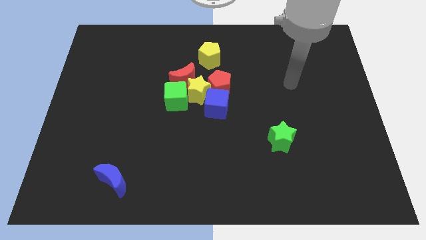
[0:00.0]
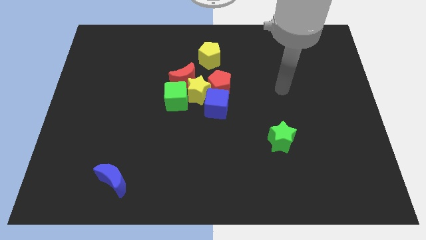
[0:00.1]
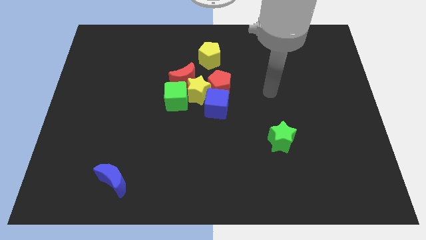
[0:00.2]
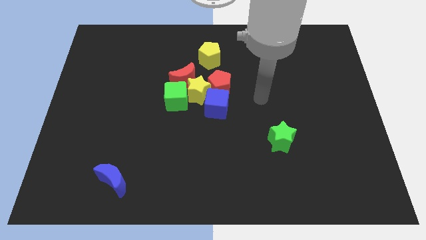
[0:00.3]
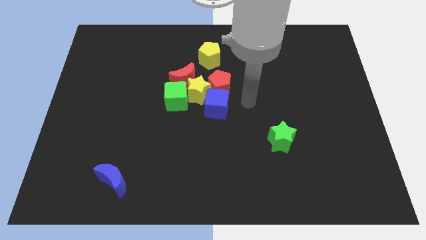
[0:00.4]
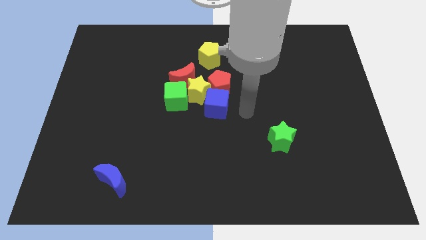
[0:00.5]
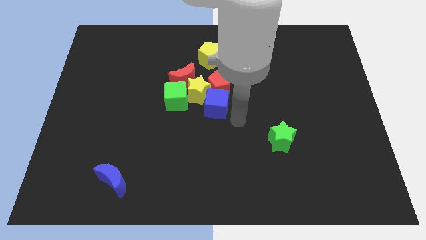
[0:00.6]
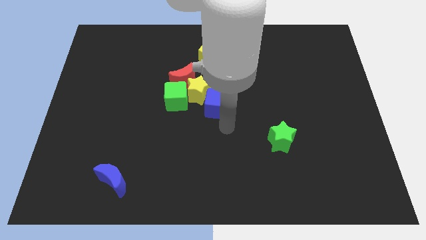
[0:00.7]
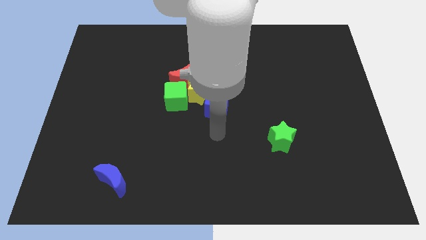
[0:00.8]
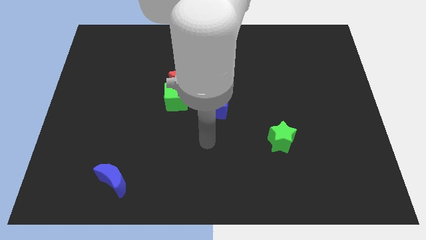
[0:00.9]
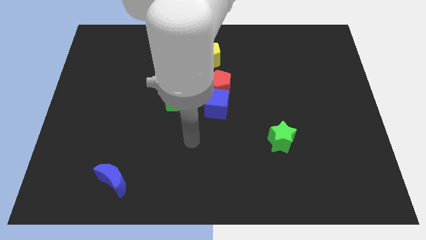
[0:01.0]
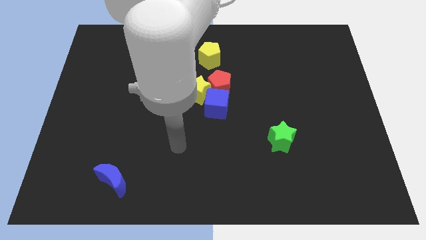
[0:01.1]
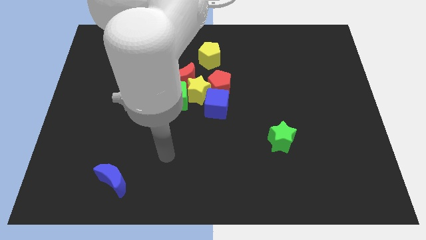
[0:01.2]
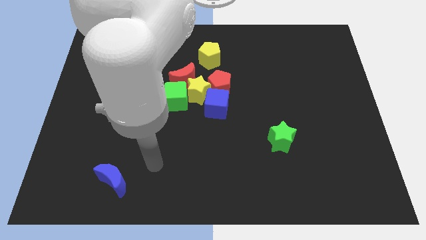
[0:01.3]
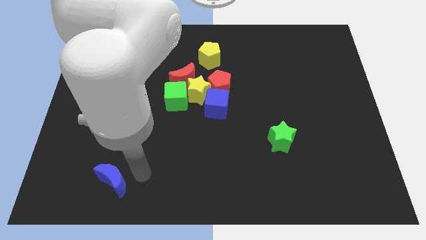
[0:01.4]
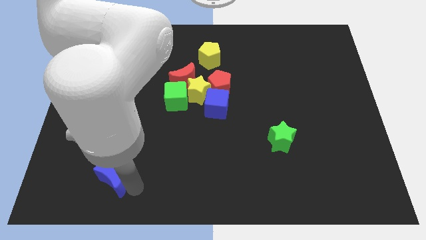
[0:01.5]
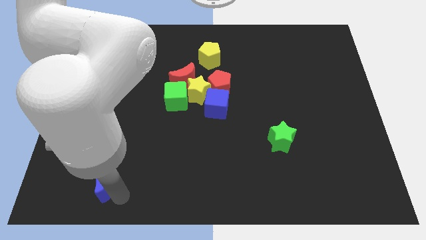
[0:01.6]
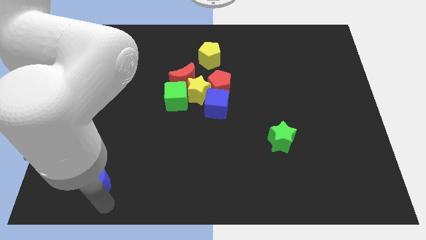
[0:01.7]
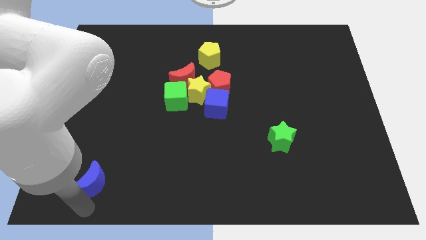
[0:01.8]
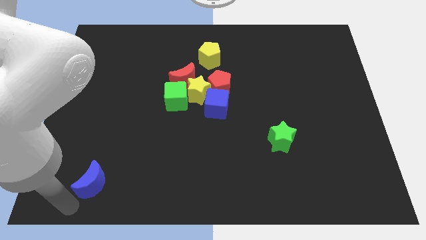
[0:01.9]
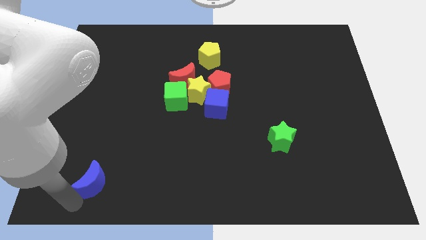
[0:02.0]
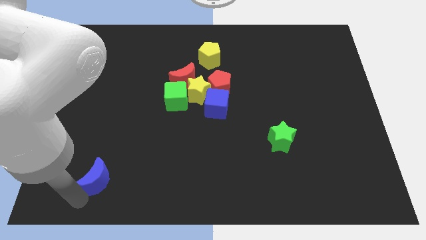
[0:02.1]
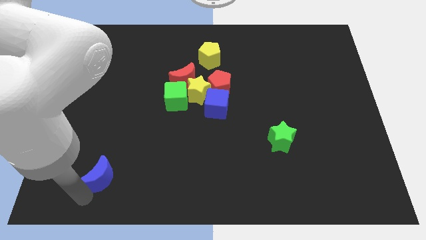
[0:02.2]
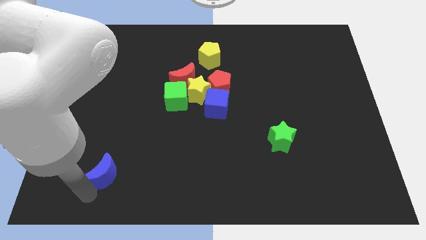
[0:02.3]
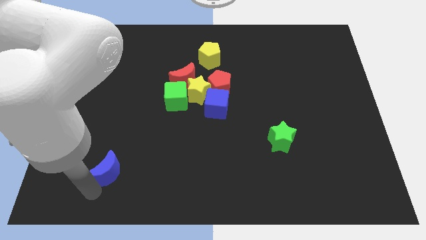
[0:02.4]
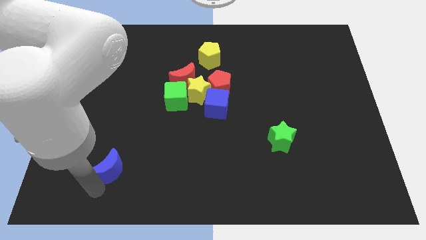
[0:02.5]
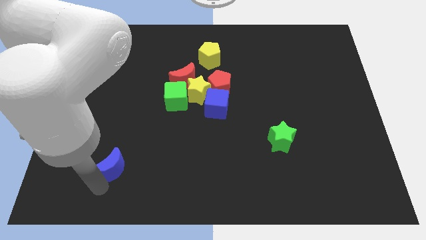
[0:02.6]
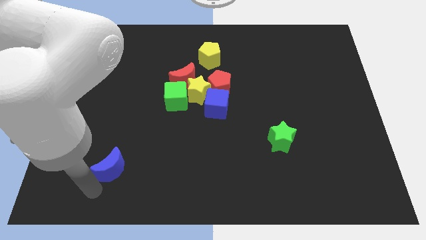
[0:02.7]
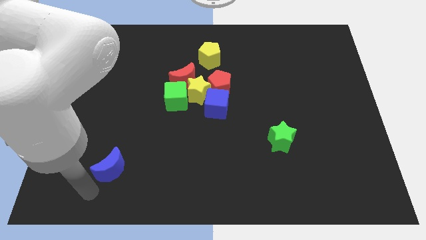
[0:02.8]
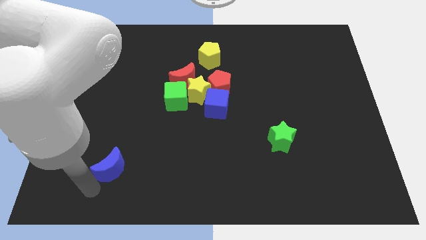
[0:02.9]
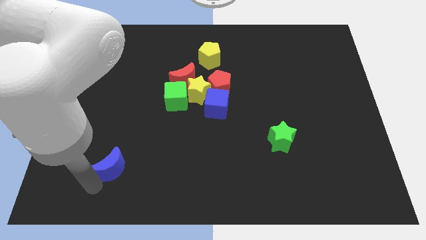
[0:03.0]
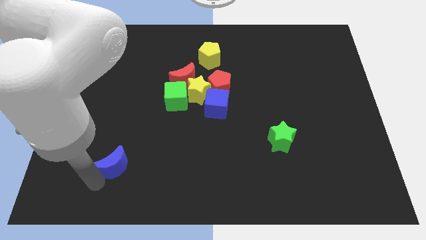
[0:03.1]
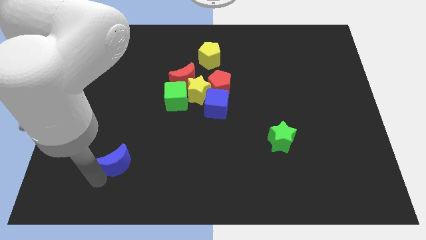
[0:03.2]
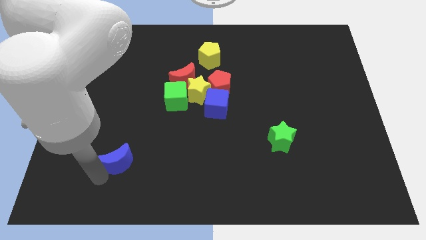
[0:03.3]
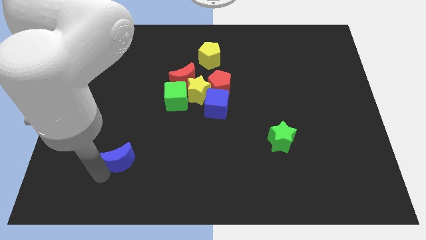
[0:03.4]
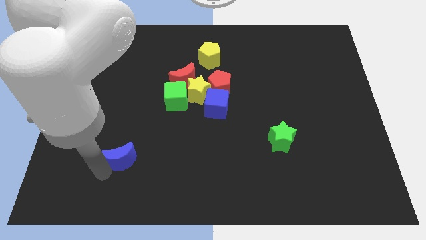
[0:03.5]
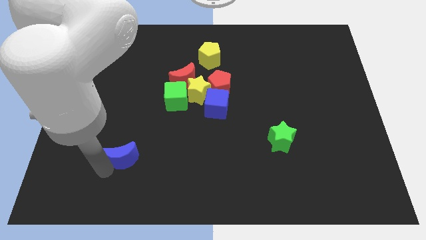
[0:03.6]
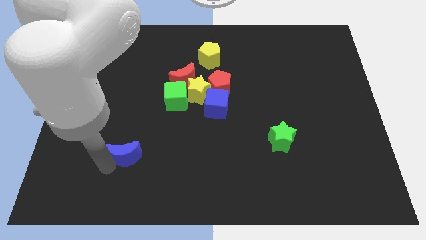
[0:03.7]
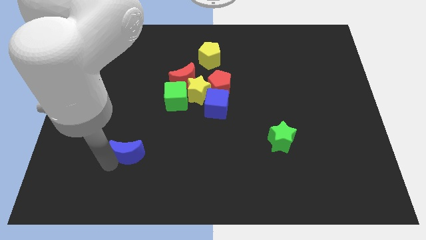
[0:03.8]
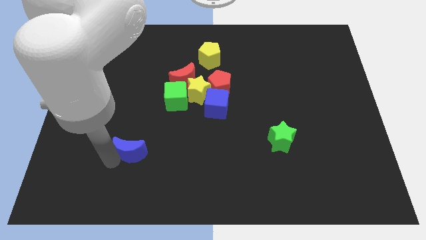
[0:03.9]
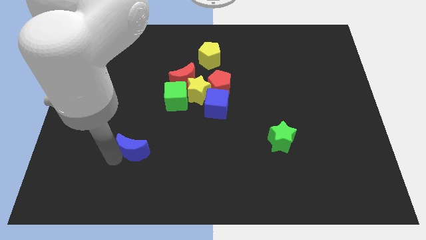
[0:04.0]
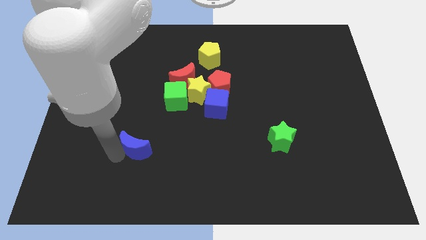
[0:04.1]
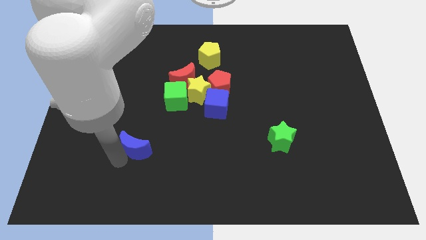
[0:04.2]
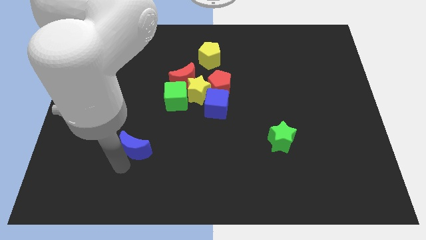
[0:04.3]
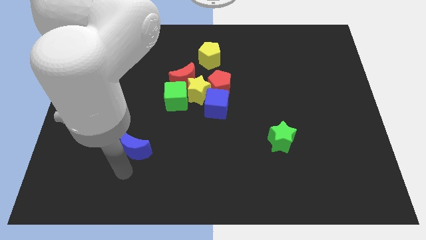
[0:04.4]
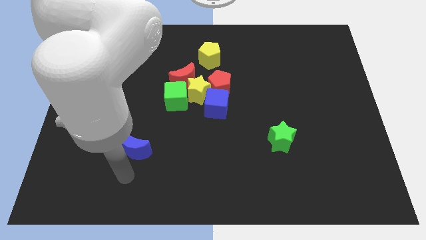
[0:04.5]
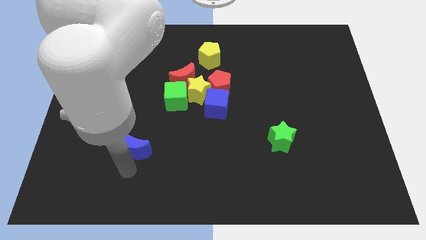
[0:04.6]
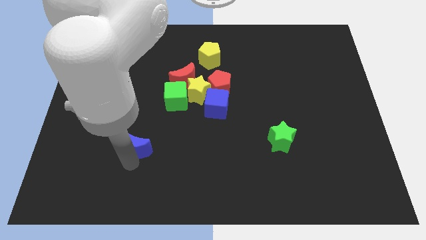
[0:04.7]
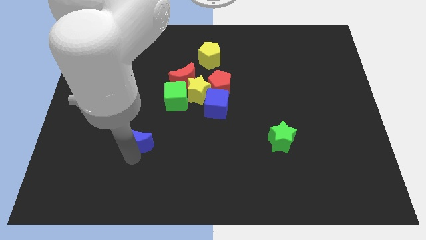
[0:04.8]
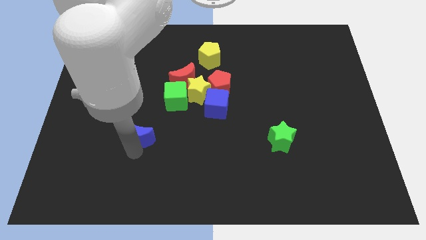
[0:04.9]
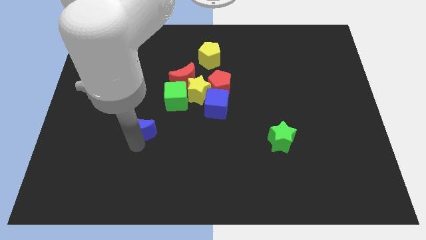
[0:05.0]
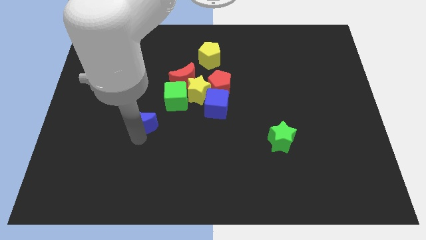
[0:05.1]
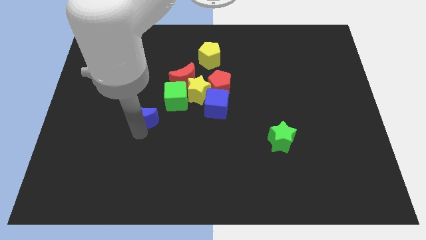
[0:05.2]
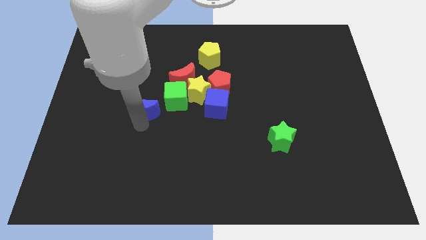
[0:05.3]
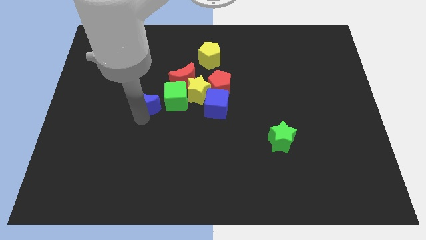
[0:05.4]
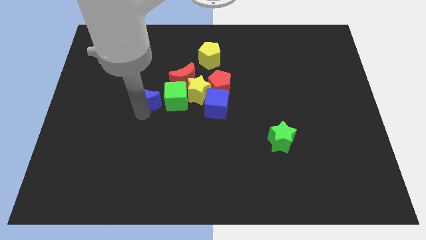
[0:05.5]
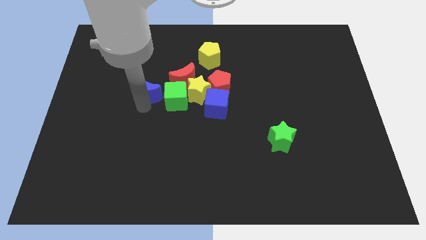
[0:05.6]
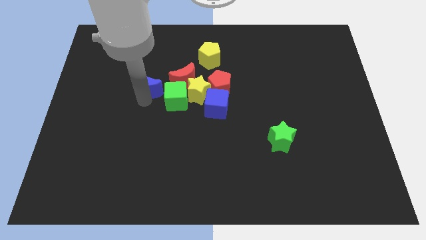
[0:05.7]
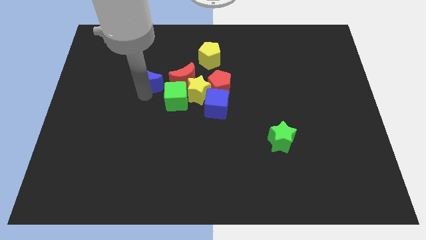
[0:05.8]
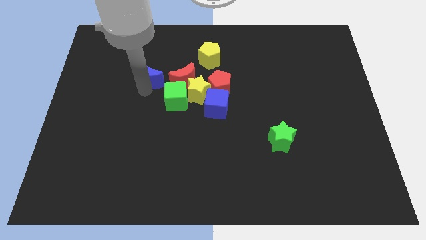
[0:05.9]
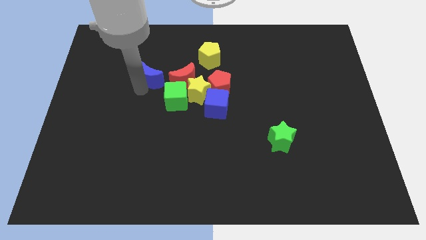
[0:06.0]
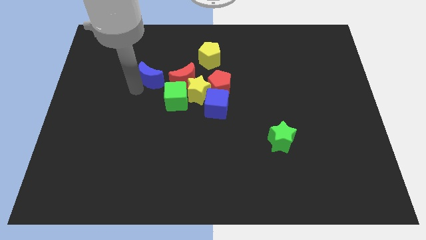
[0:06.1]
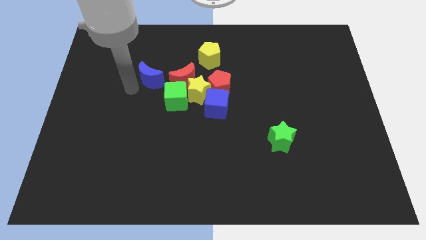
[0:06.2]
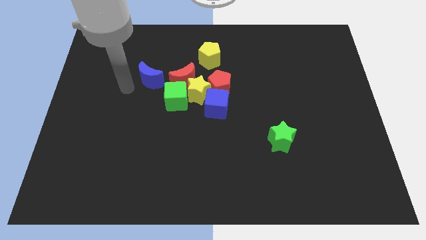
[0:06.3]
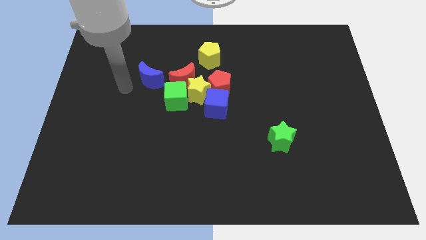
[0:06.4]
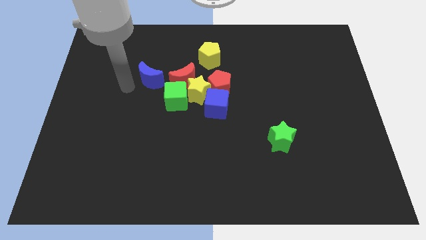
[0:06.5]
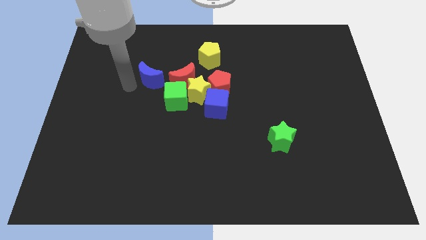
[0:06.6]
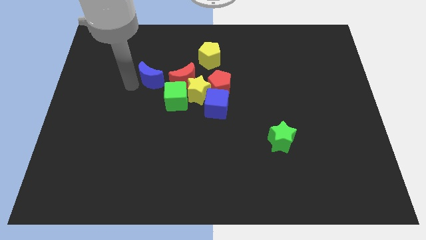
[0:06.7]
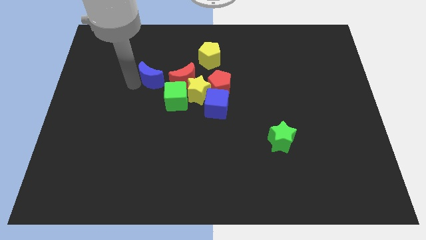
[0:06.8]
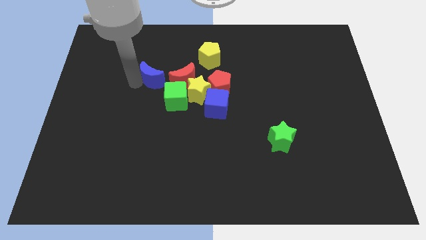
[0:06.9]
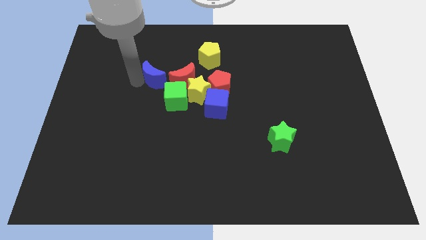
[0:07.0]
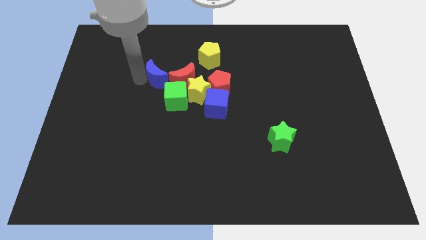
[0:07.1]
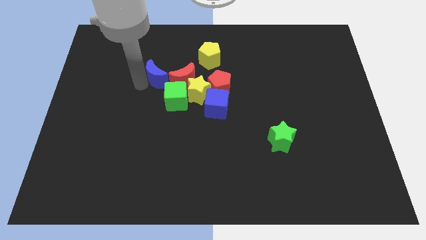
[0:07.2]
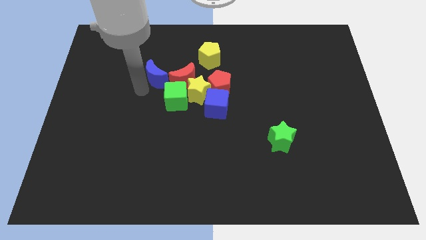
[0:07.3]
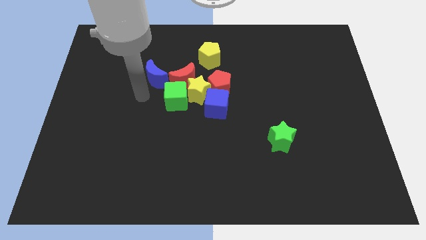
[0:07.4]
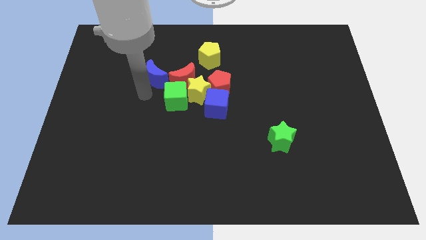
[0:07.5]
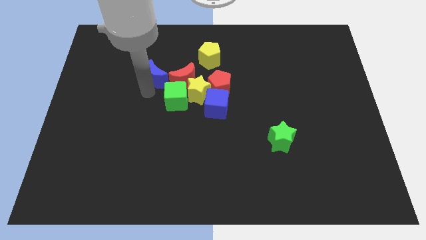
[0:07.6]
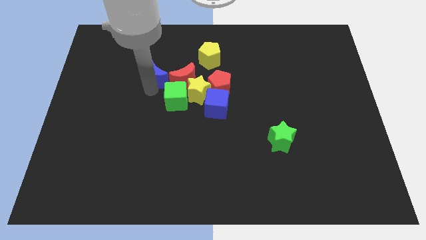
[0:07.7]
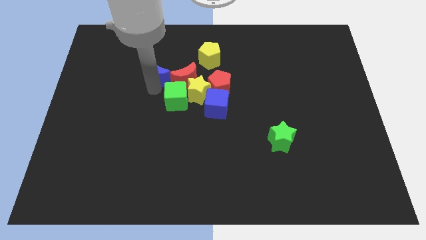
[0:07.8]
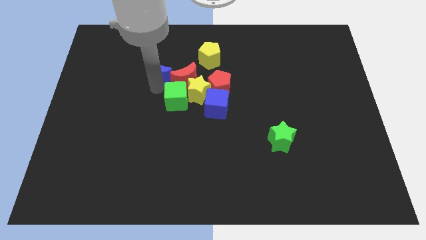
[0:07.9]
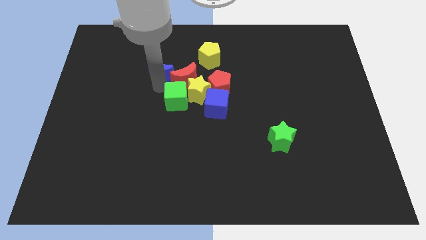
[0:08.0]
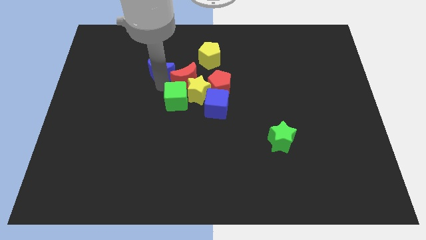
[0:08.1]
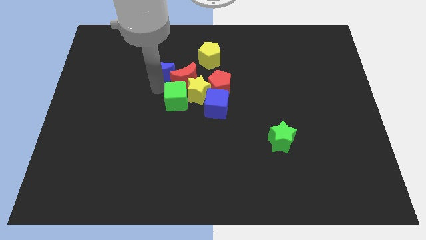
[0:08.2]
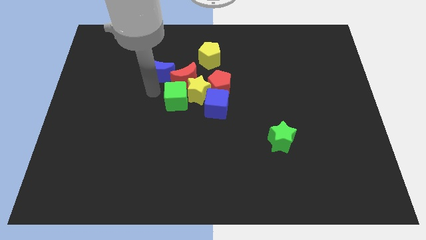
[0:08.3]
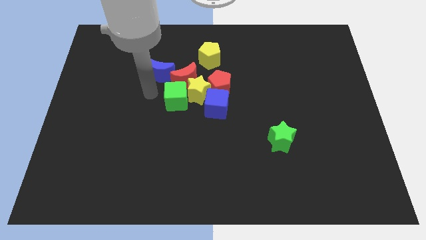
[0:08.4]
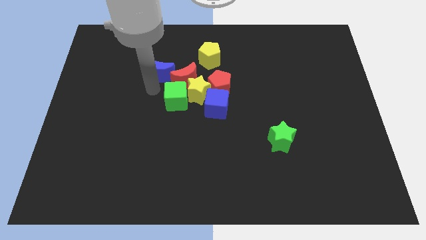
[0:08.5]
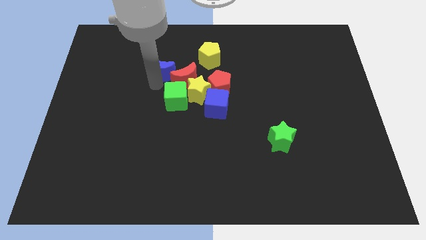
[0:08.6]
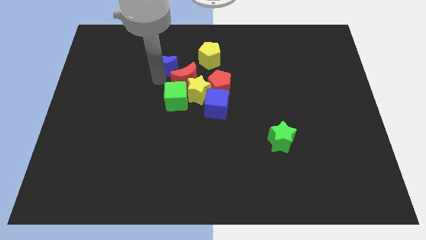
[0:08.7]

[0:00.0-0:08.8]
push the blue moon to the left side of the yellow pentagon
